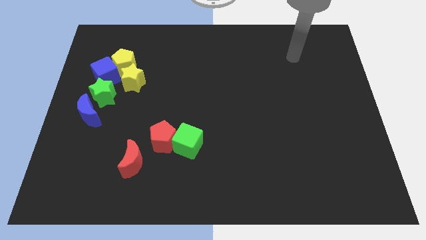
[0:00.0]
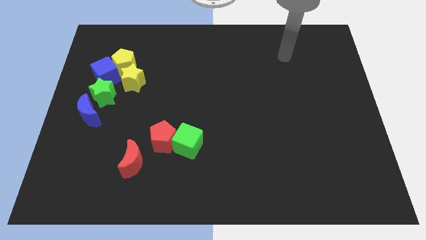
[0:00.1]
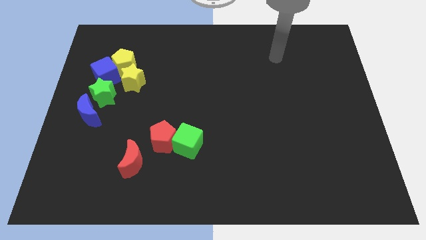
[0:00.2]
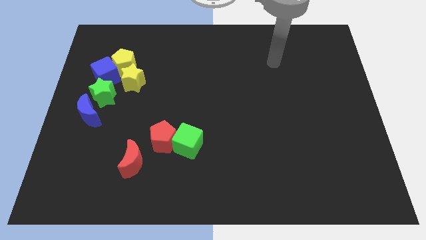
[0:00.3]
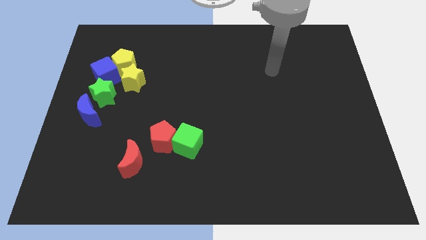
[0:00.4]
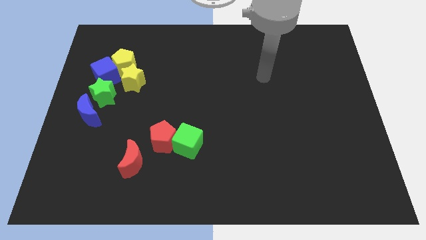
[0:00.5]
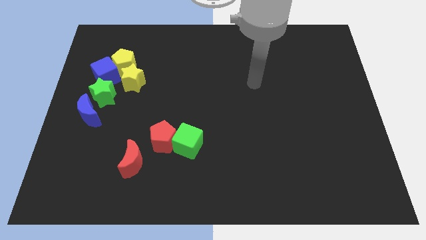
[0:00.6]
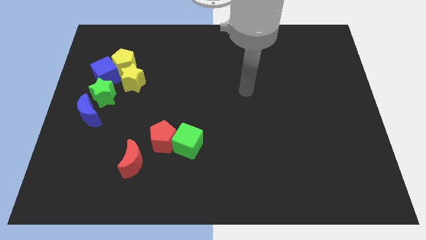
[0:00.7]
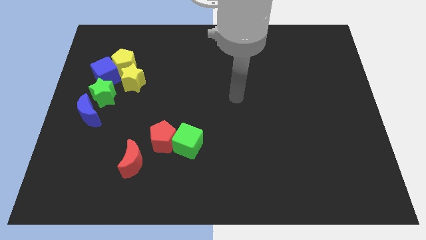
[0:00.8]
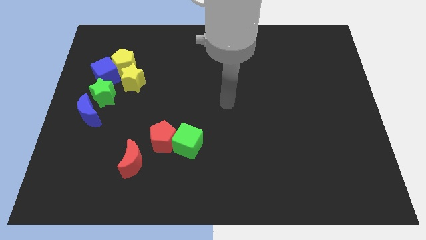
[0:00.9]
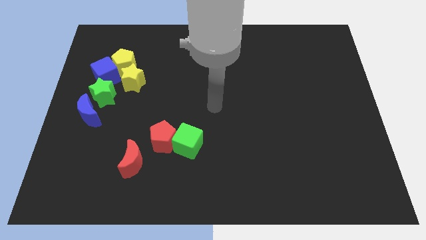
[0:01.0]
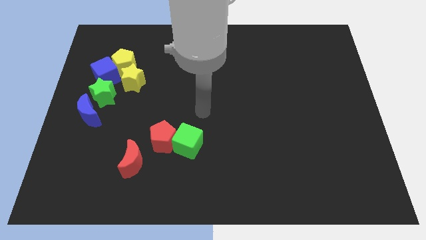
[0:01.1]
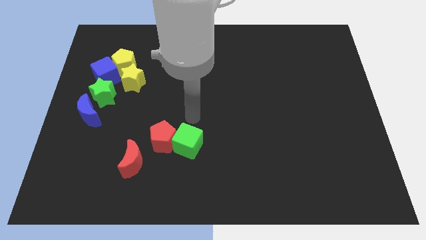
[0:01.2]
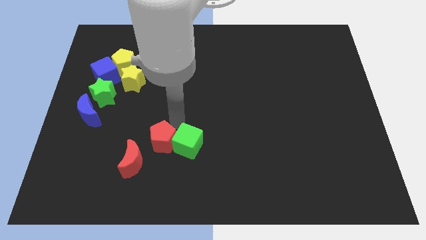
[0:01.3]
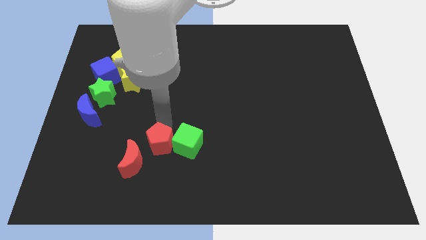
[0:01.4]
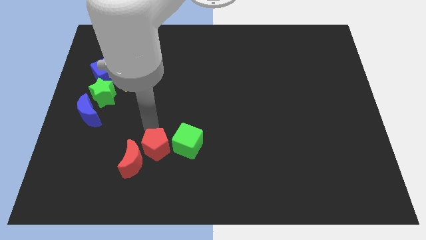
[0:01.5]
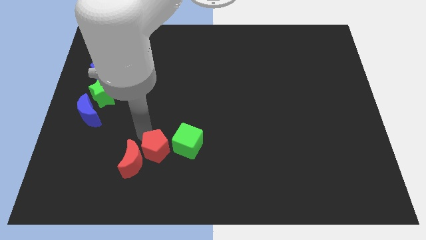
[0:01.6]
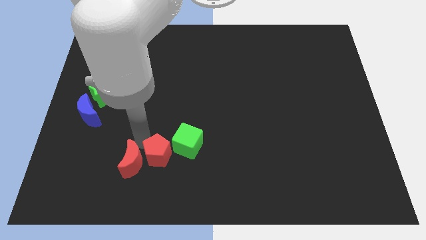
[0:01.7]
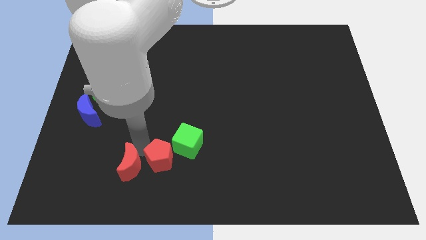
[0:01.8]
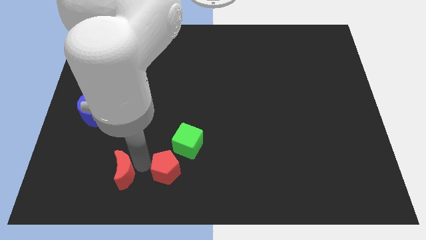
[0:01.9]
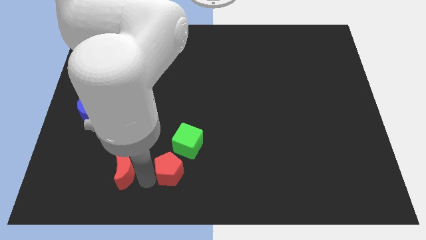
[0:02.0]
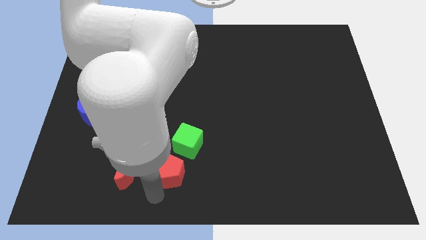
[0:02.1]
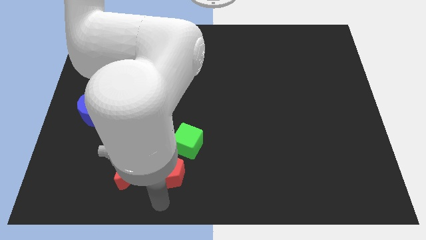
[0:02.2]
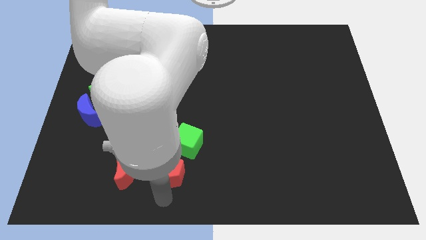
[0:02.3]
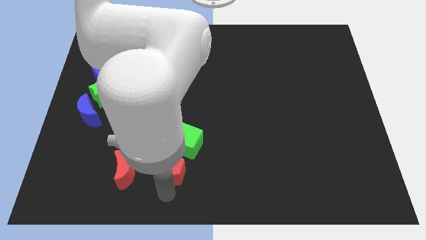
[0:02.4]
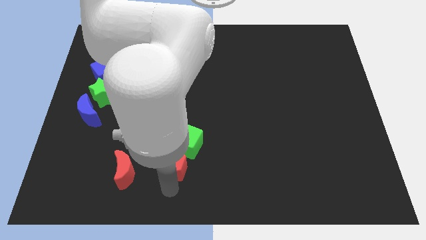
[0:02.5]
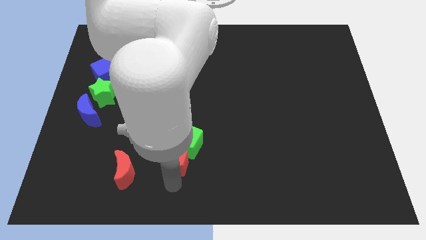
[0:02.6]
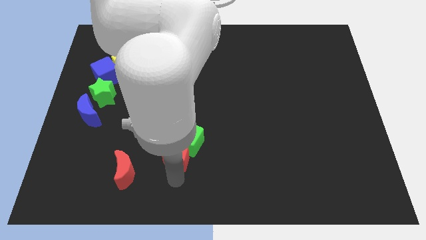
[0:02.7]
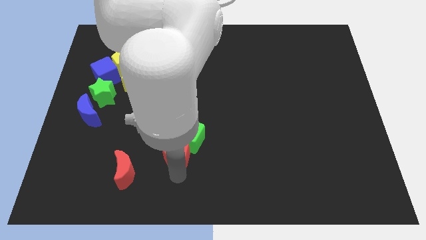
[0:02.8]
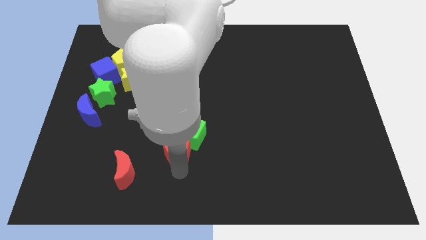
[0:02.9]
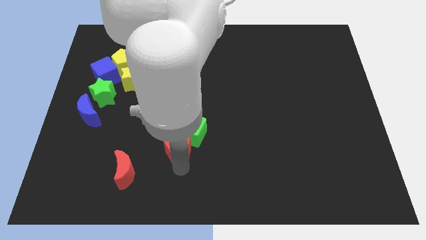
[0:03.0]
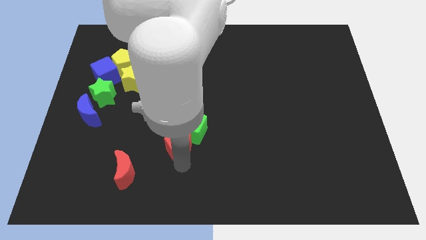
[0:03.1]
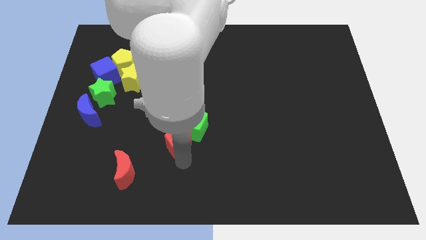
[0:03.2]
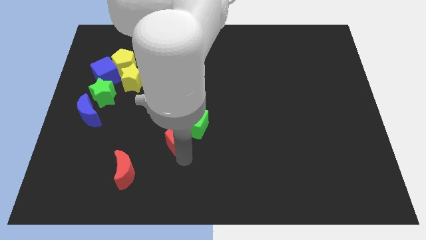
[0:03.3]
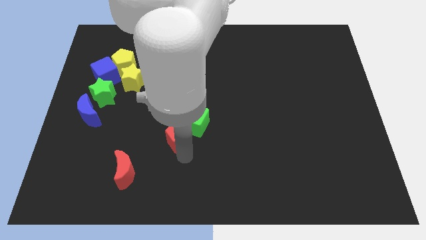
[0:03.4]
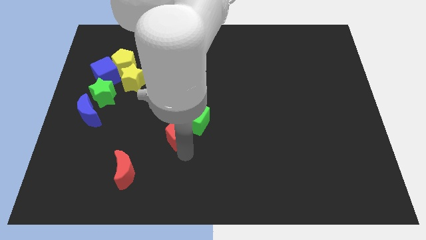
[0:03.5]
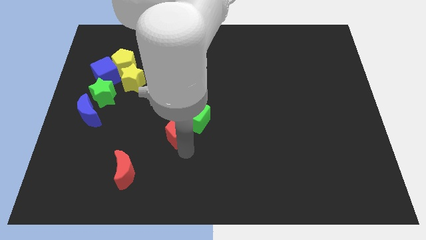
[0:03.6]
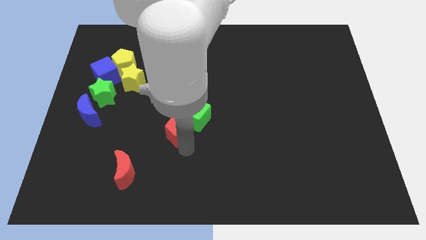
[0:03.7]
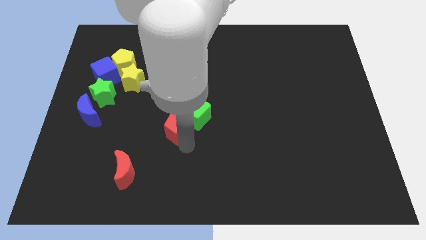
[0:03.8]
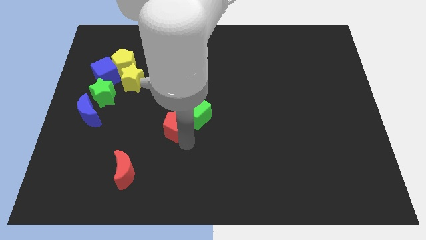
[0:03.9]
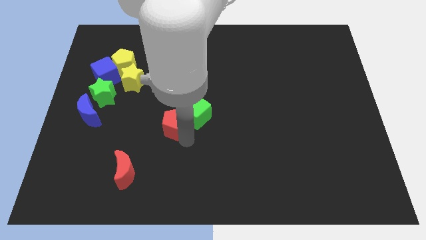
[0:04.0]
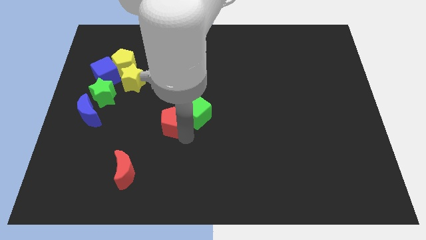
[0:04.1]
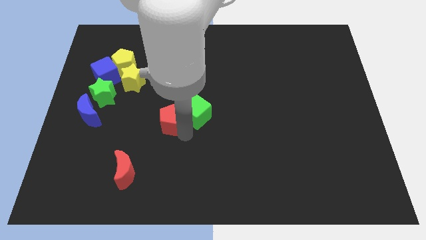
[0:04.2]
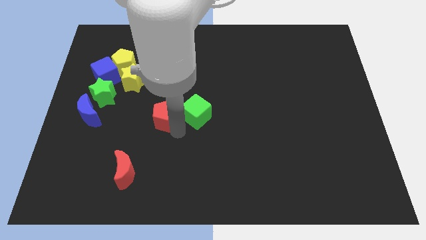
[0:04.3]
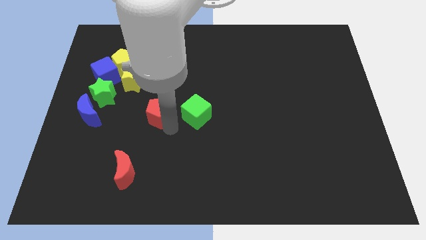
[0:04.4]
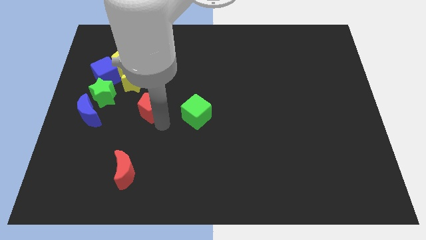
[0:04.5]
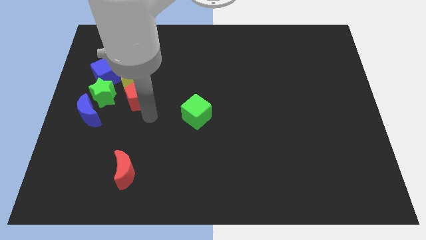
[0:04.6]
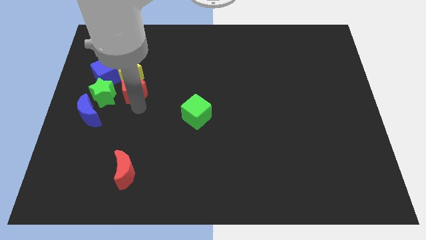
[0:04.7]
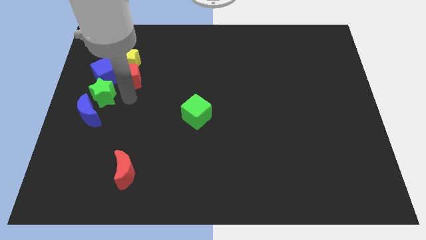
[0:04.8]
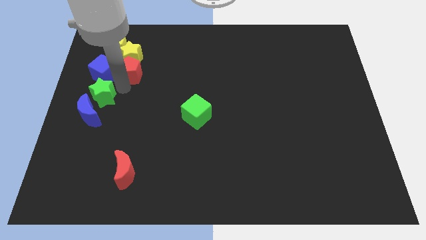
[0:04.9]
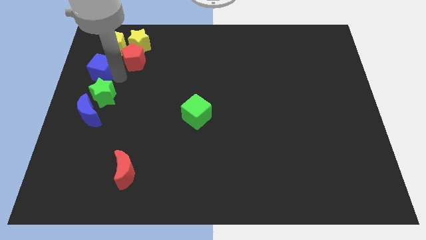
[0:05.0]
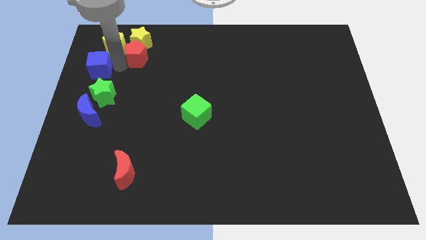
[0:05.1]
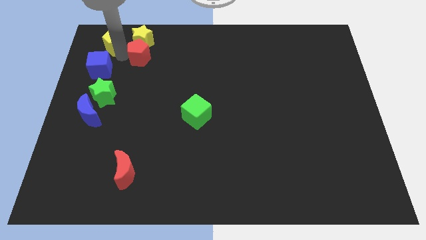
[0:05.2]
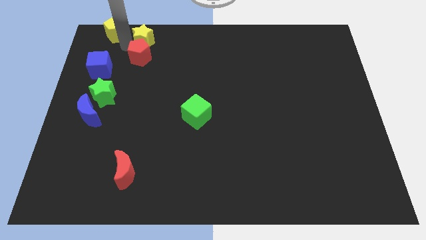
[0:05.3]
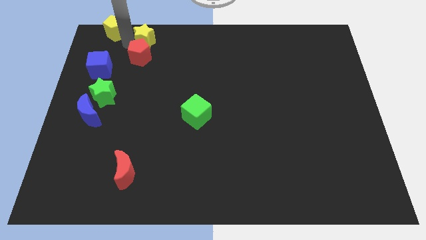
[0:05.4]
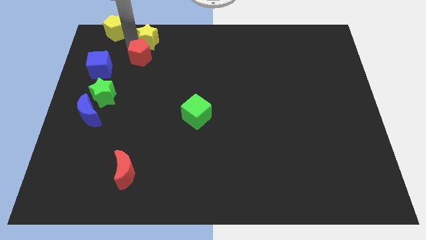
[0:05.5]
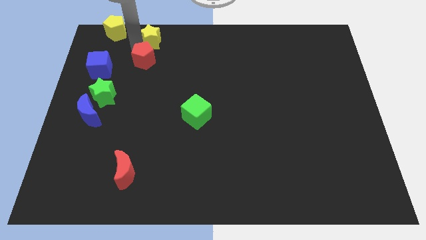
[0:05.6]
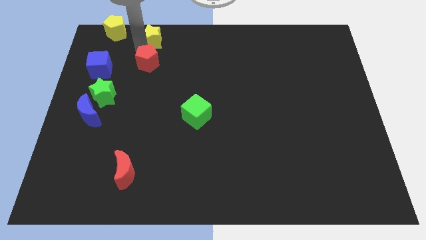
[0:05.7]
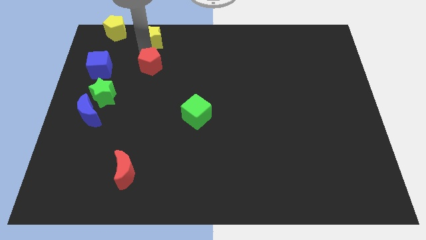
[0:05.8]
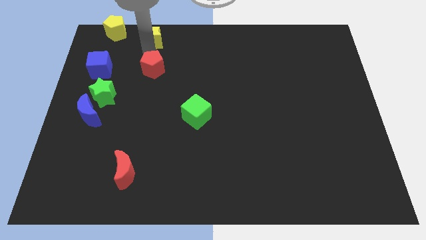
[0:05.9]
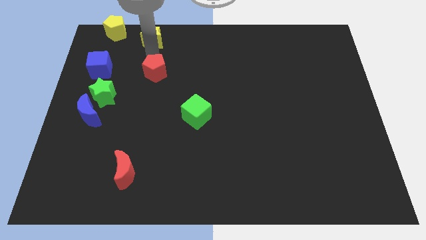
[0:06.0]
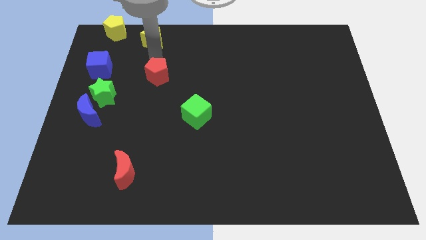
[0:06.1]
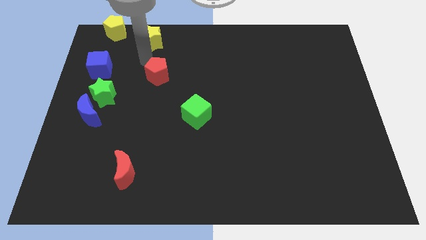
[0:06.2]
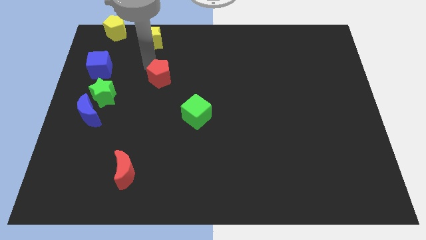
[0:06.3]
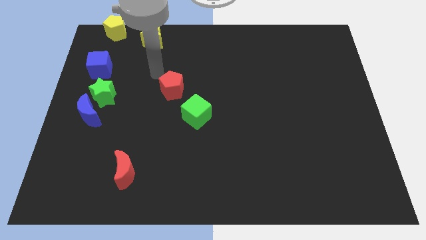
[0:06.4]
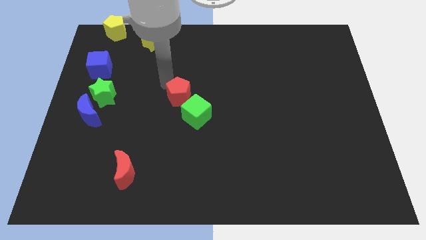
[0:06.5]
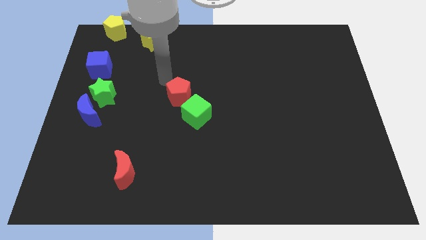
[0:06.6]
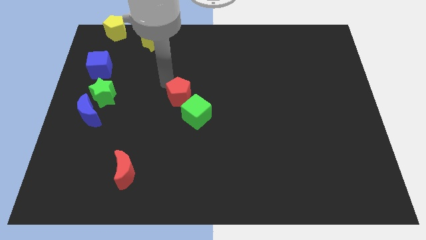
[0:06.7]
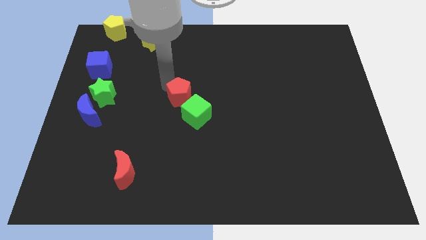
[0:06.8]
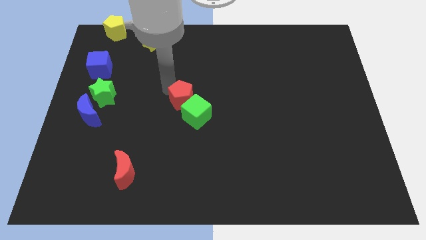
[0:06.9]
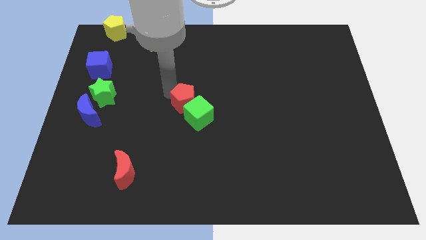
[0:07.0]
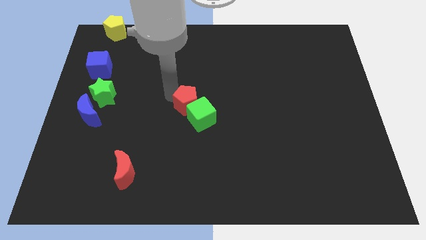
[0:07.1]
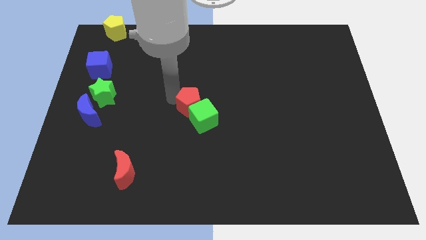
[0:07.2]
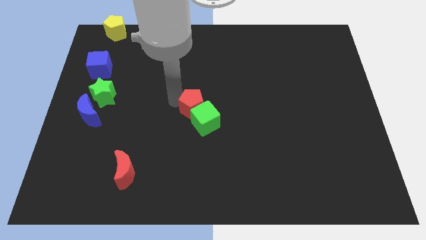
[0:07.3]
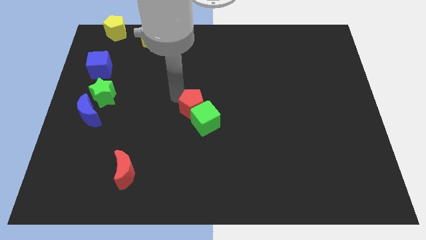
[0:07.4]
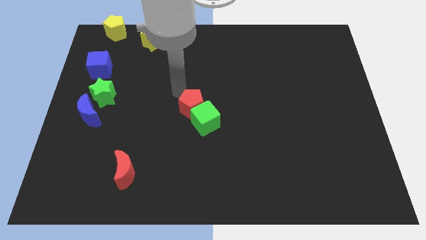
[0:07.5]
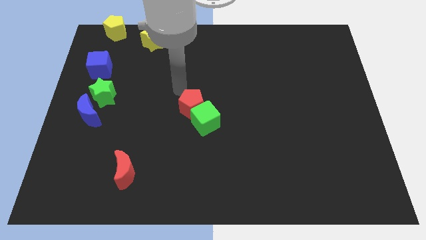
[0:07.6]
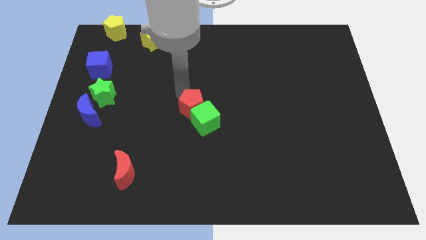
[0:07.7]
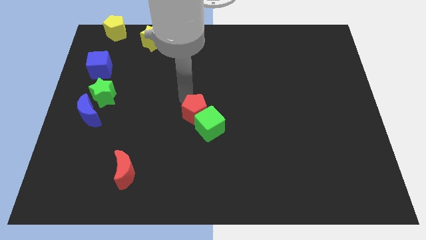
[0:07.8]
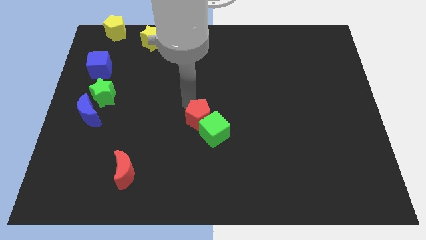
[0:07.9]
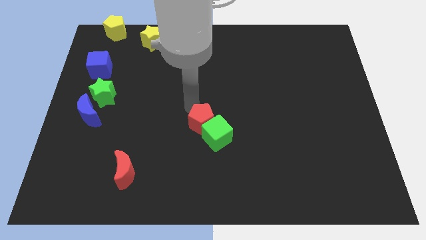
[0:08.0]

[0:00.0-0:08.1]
push the red pentagon right a bit

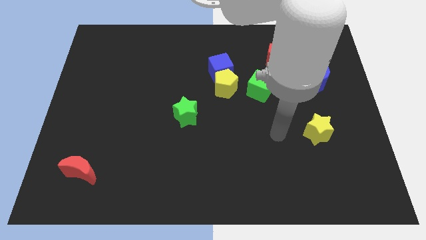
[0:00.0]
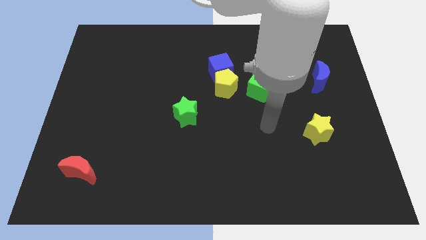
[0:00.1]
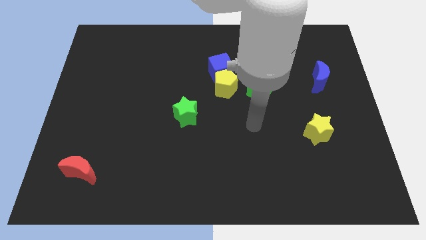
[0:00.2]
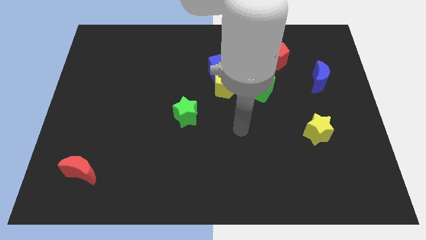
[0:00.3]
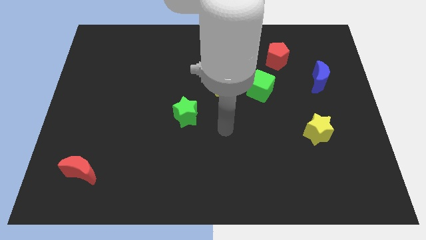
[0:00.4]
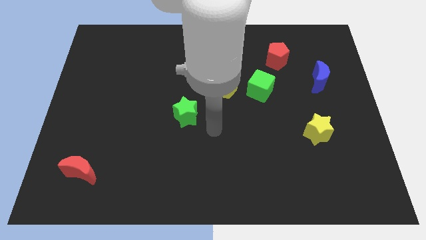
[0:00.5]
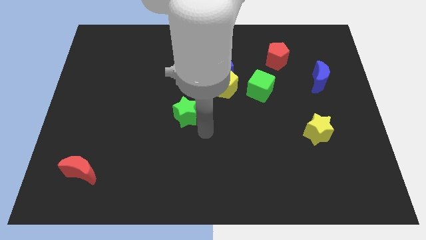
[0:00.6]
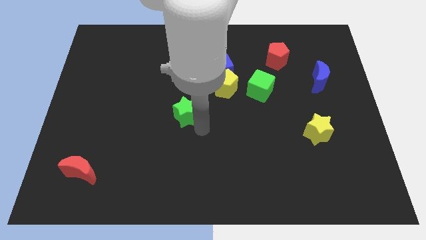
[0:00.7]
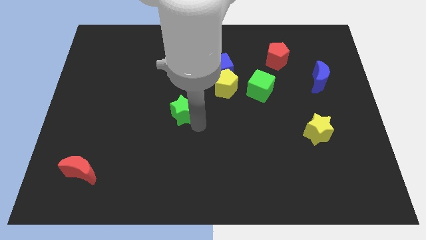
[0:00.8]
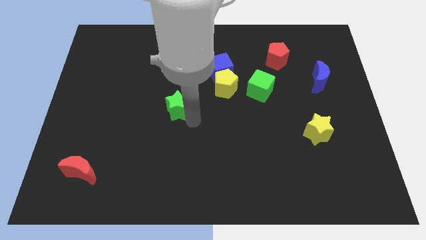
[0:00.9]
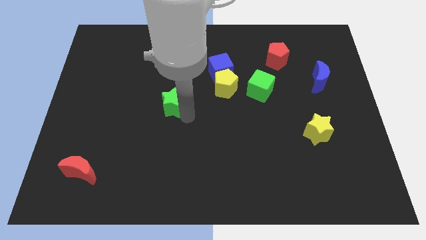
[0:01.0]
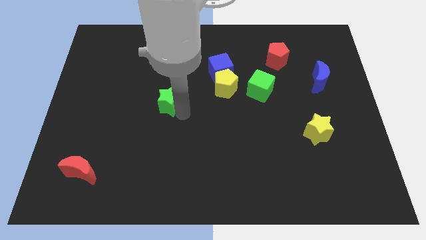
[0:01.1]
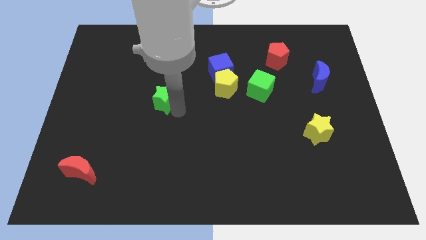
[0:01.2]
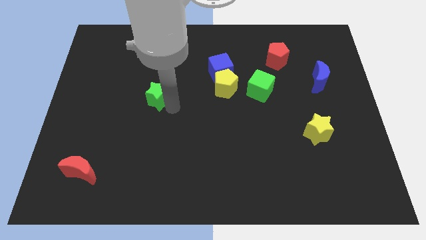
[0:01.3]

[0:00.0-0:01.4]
slightly slide the green star up and then left
